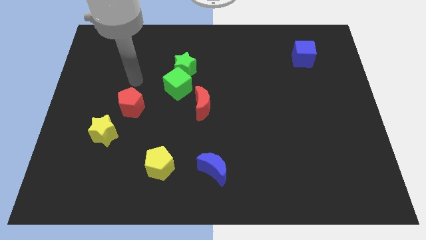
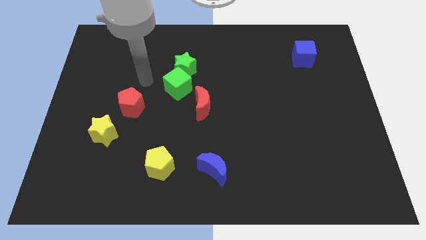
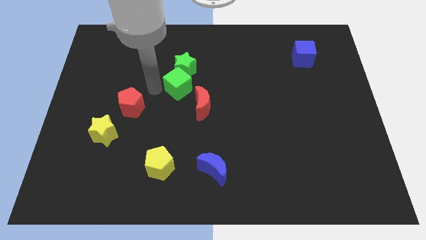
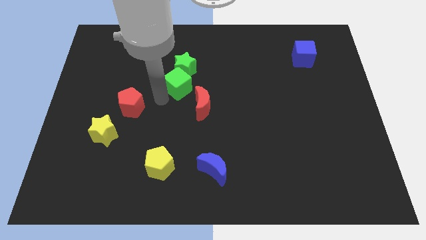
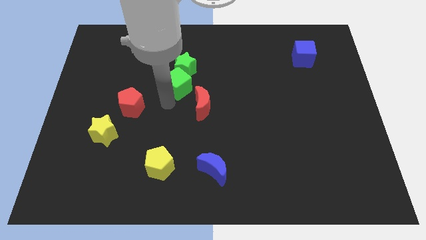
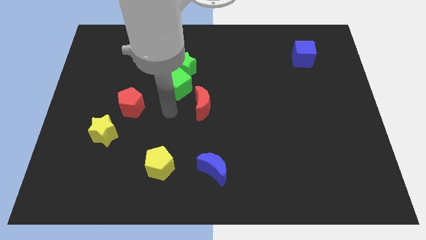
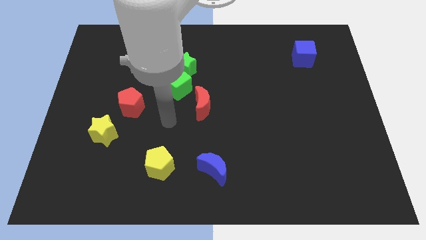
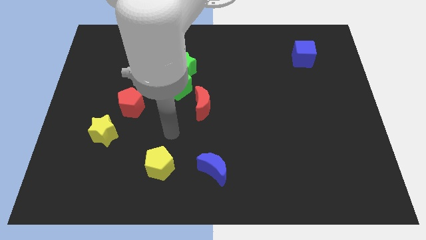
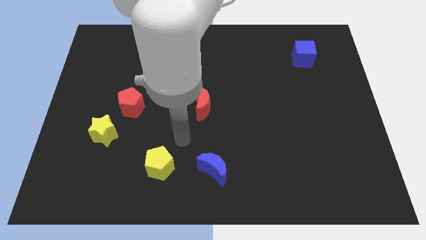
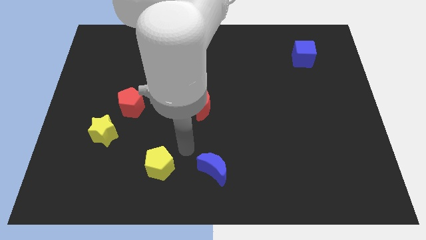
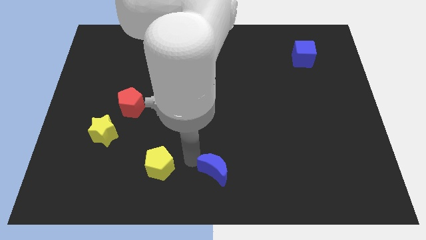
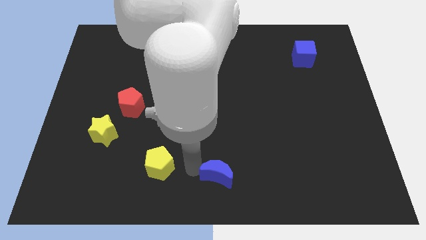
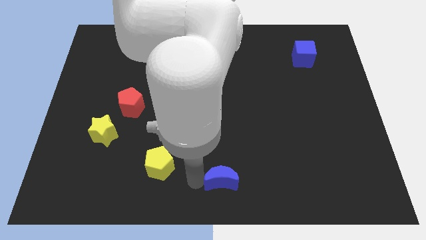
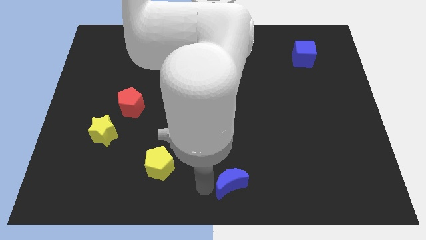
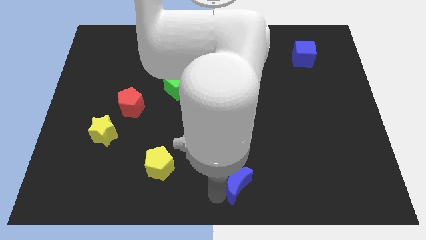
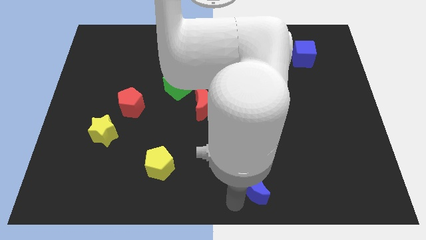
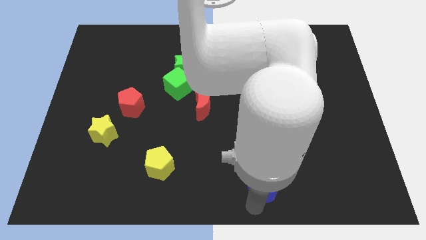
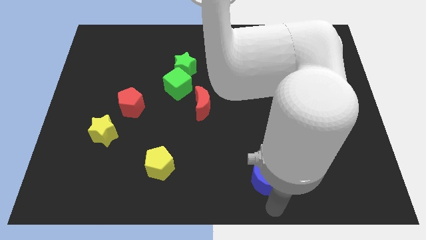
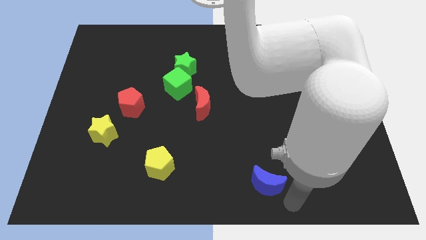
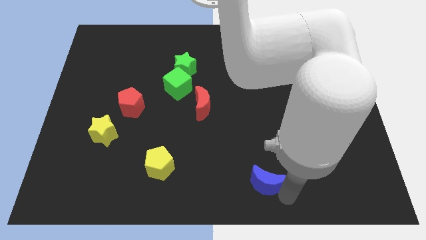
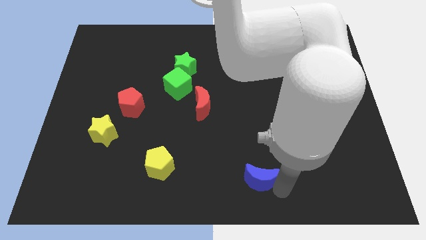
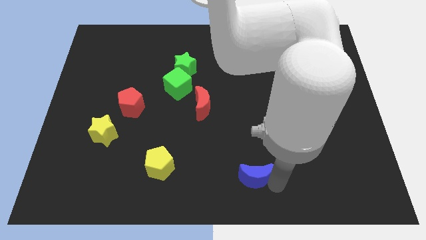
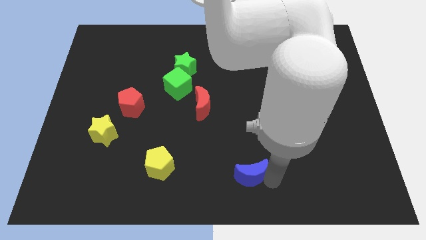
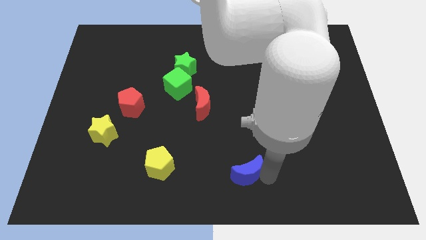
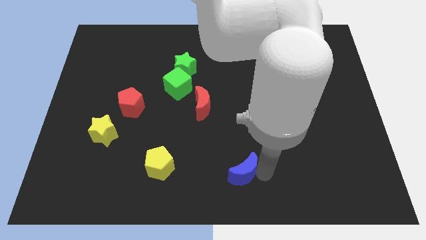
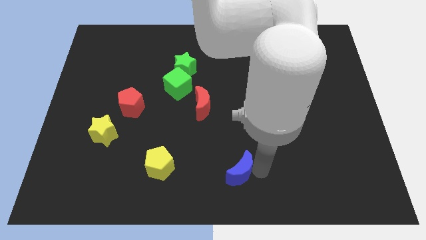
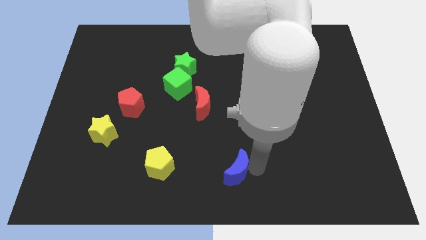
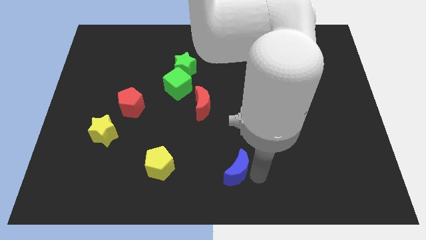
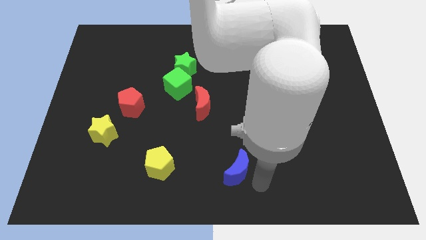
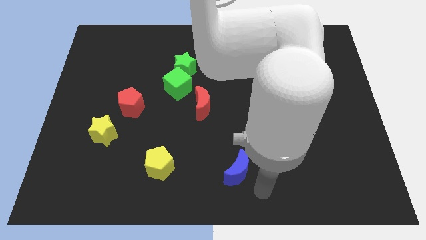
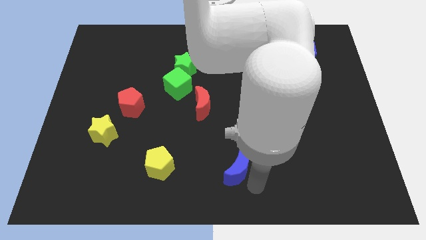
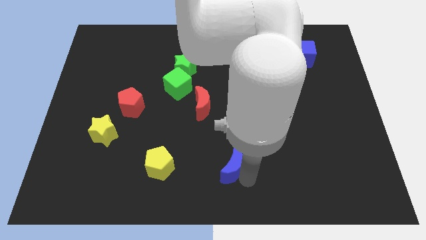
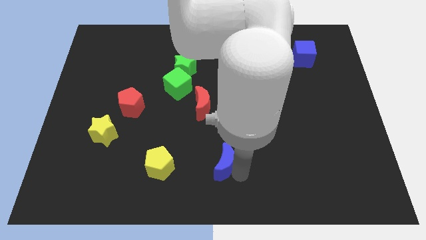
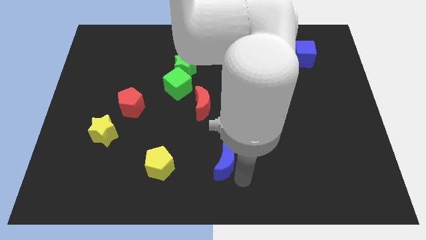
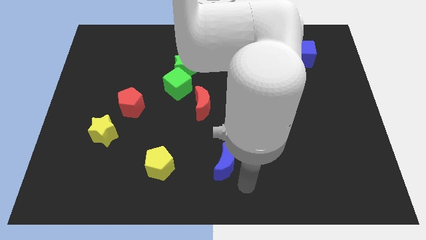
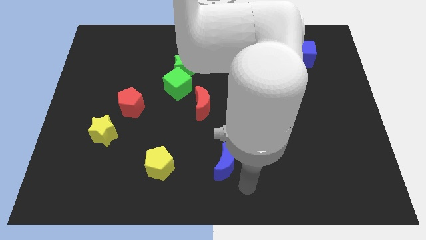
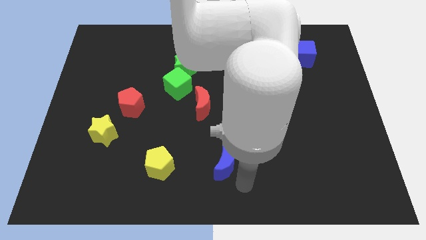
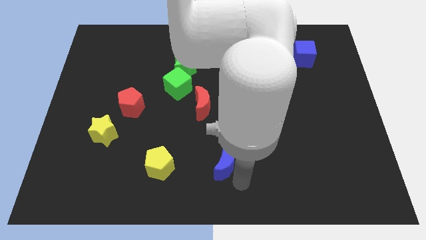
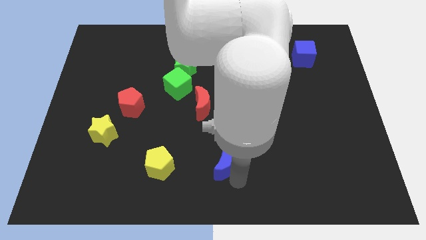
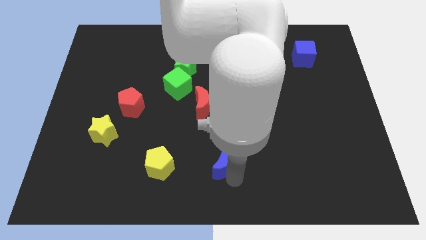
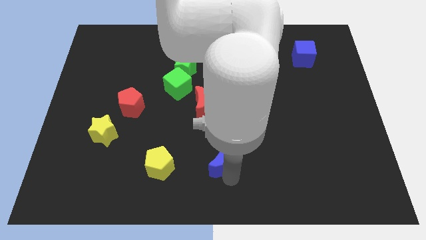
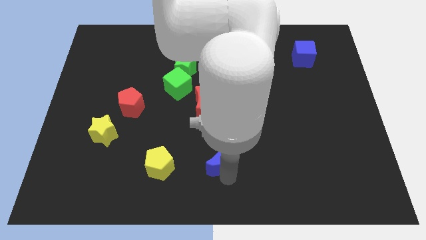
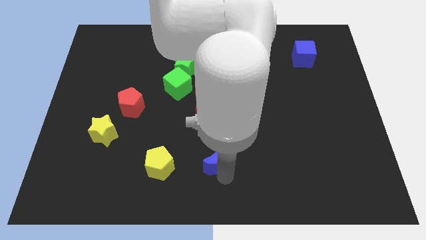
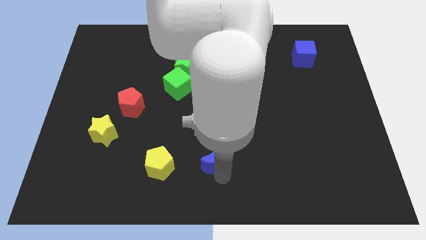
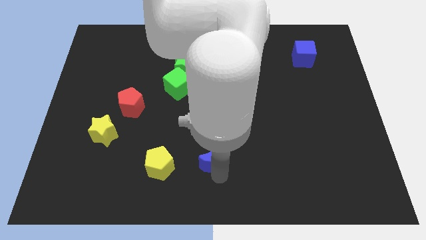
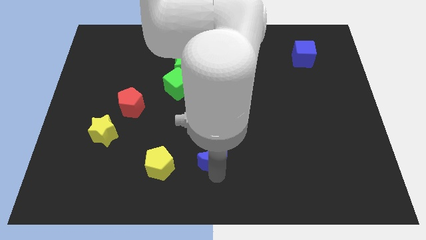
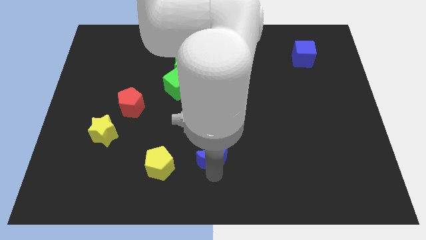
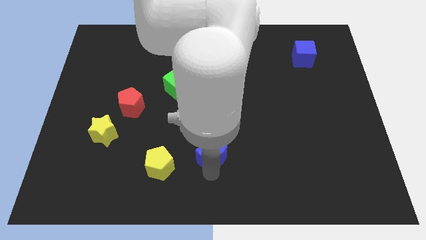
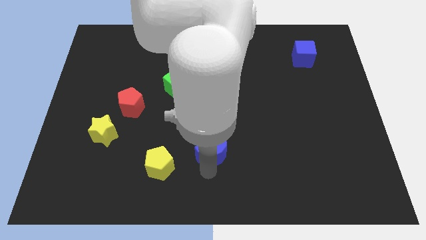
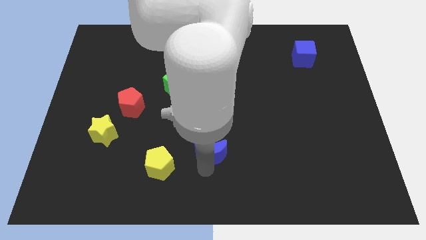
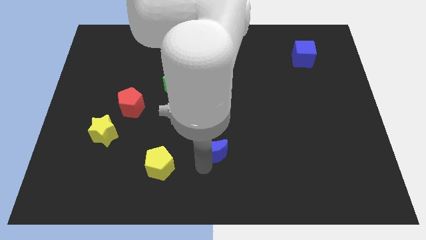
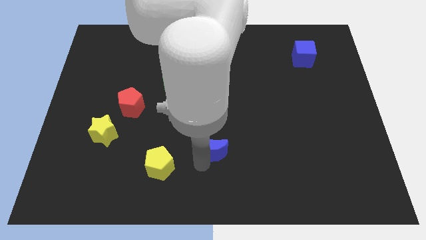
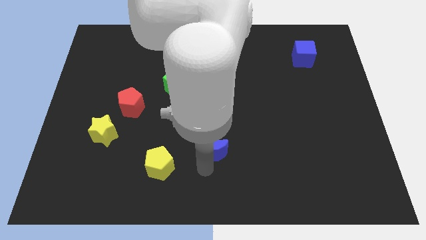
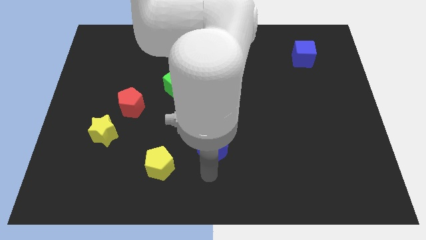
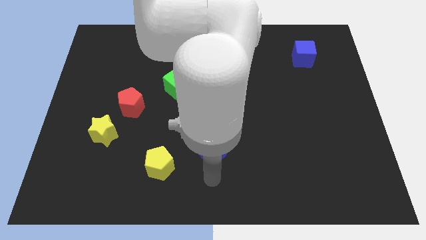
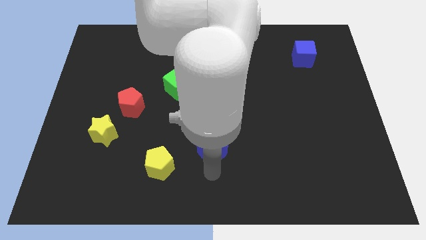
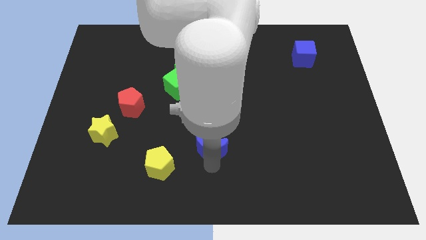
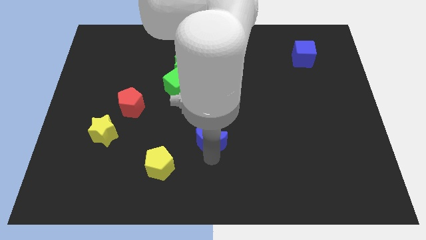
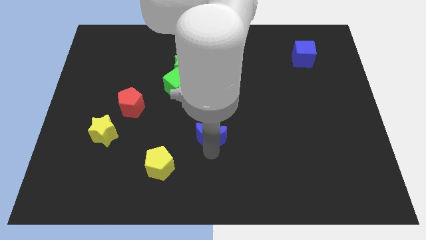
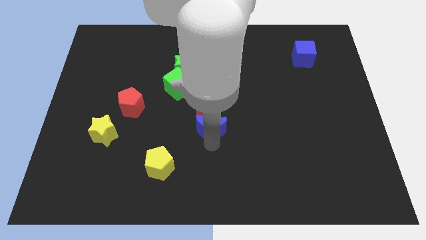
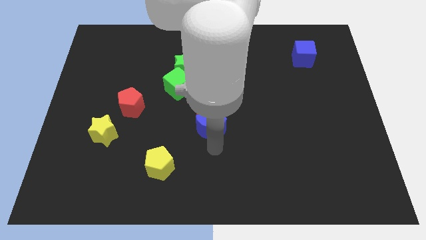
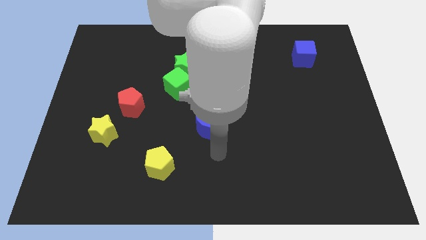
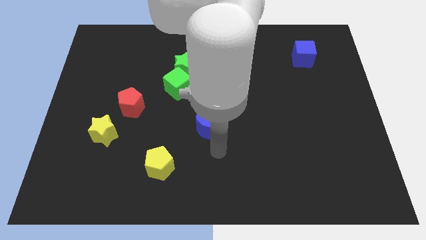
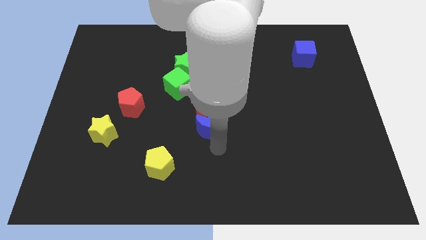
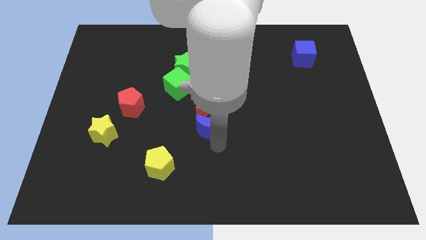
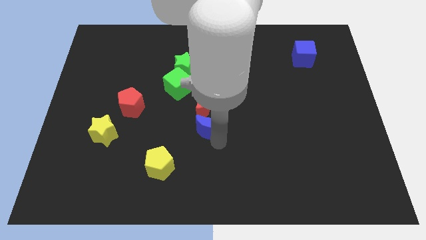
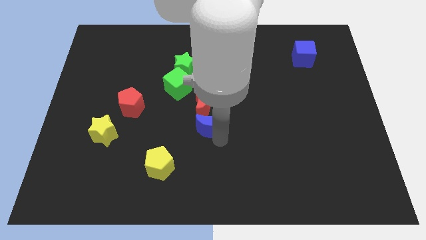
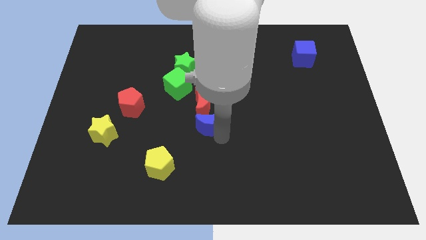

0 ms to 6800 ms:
move the blue moon to the red moon

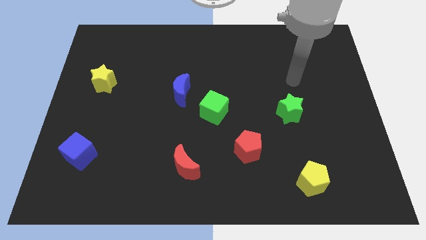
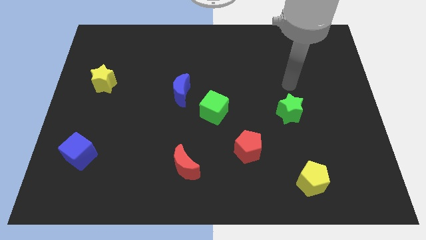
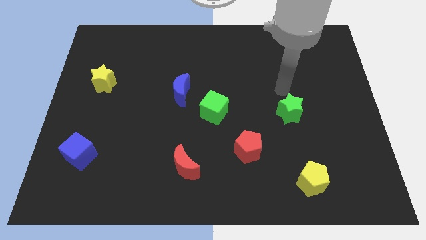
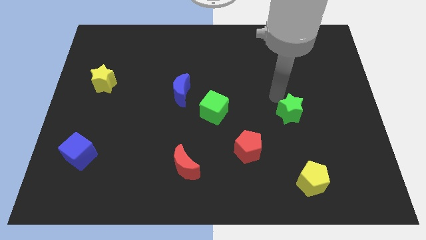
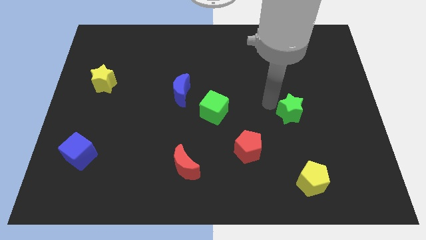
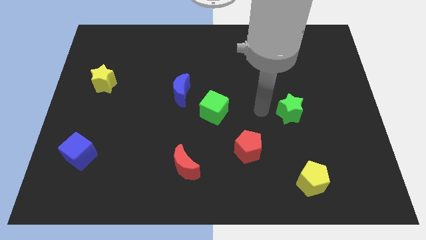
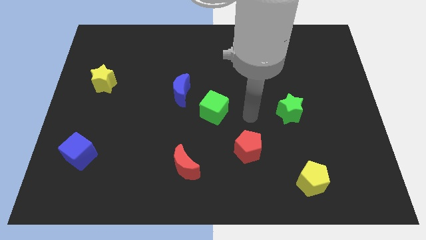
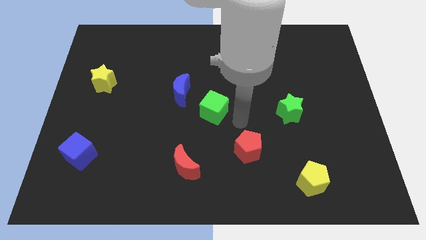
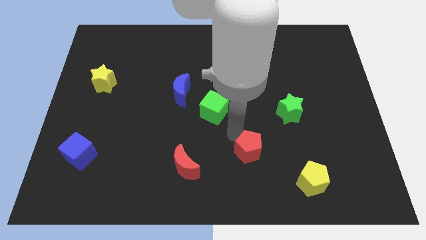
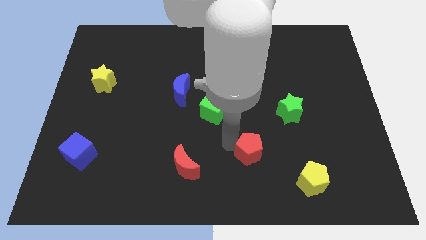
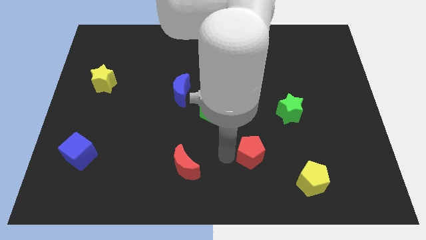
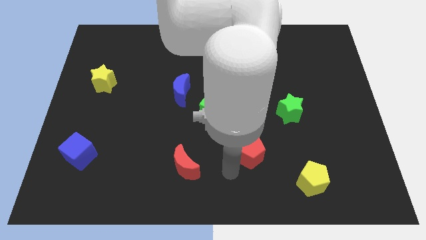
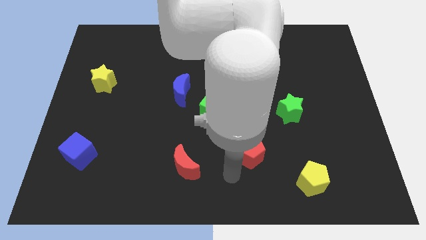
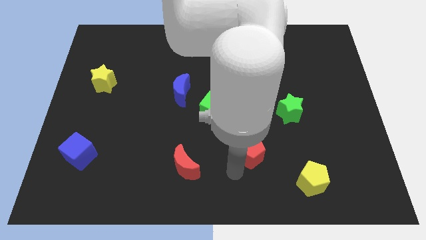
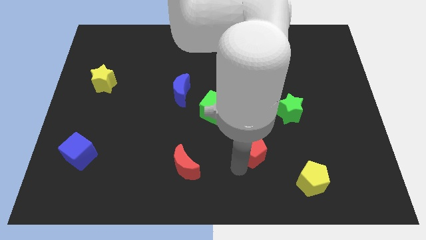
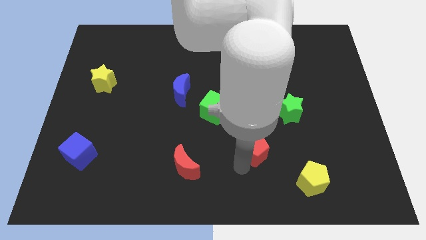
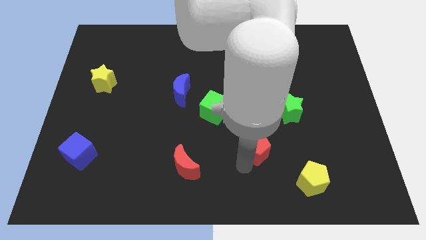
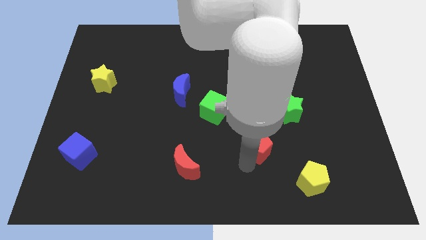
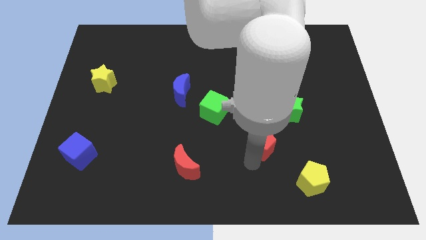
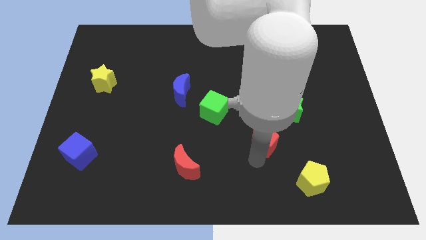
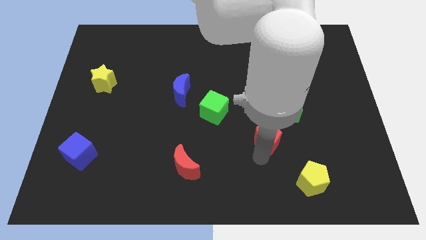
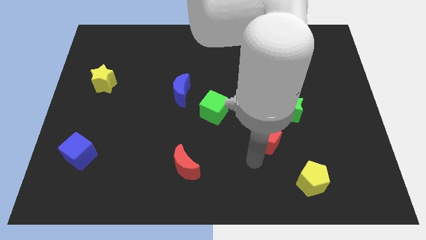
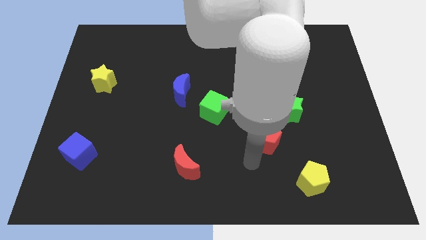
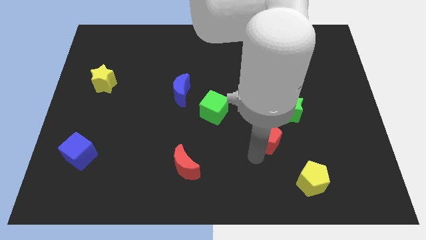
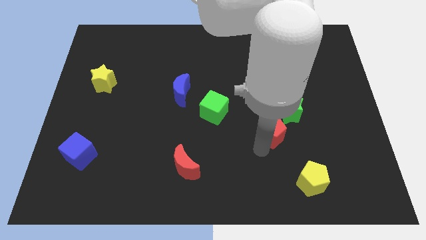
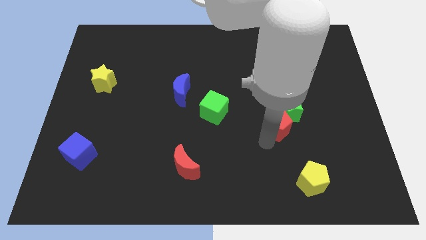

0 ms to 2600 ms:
push the red pentagon towards the green star
